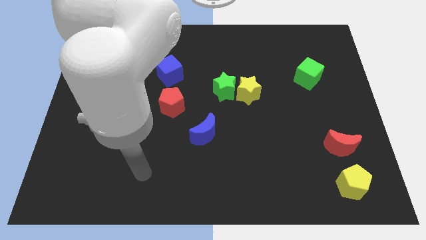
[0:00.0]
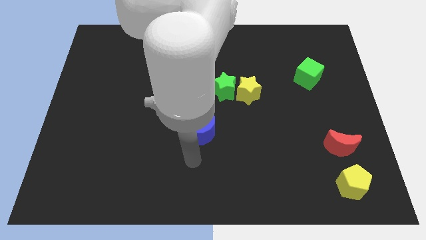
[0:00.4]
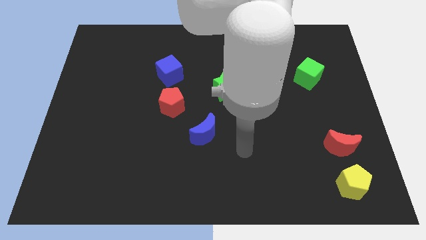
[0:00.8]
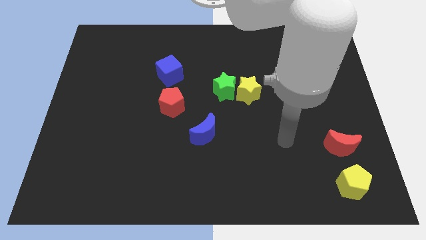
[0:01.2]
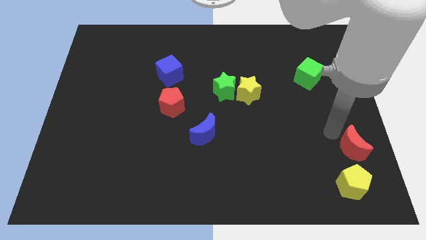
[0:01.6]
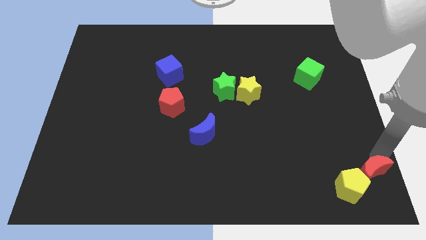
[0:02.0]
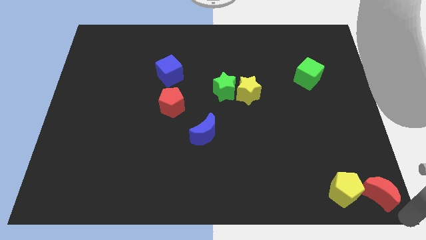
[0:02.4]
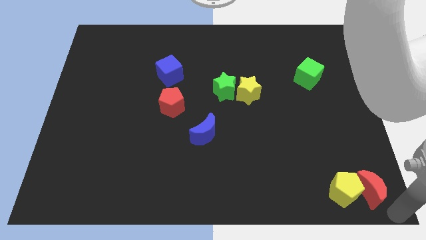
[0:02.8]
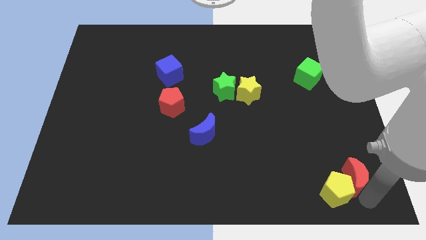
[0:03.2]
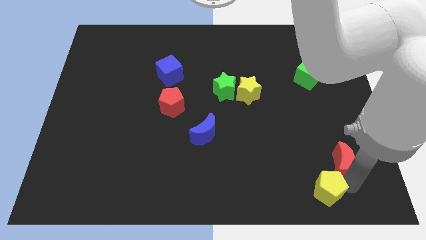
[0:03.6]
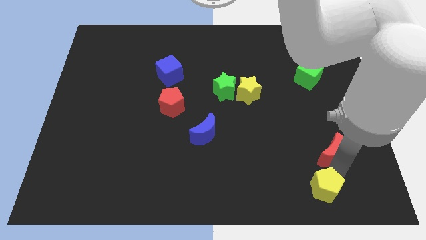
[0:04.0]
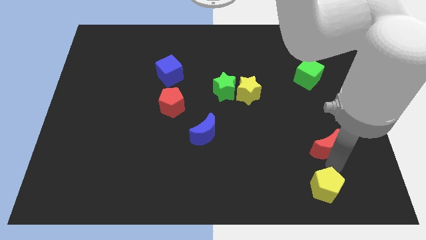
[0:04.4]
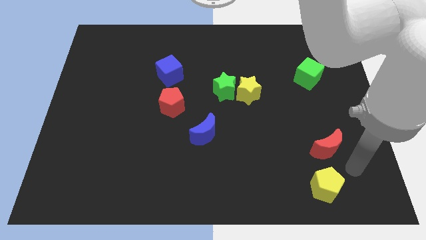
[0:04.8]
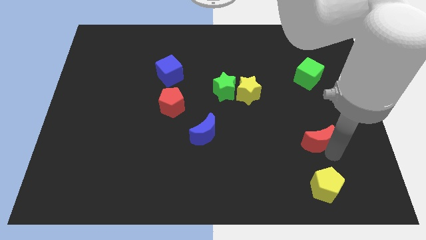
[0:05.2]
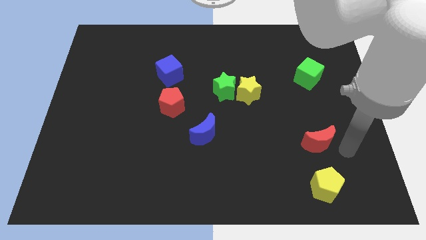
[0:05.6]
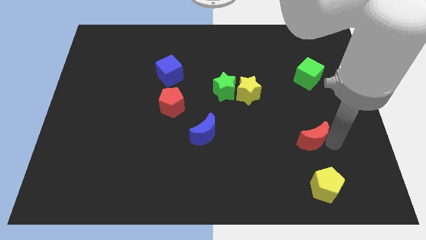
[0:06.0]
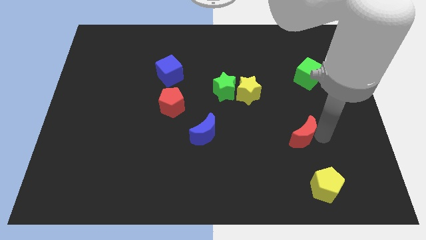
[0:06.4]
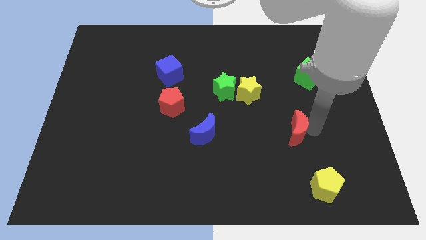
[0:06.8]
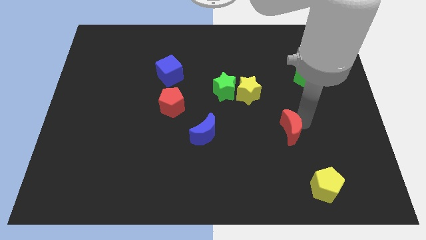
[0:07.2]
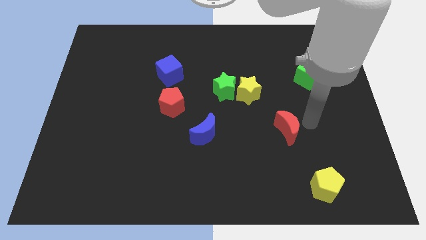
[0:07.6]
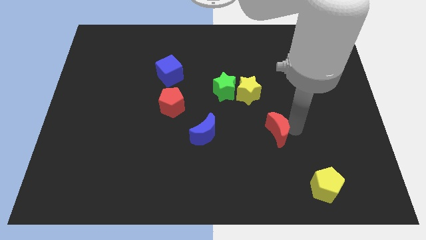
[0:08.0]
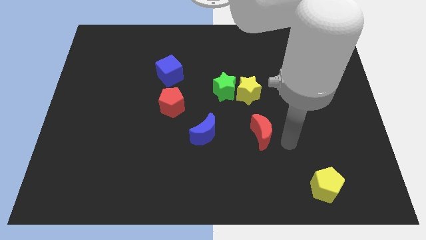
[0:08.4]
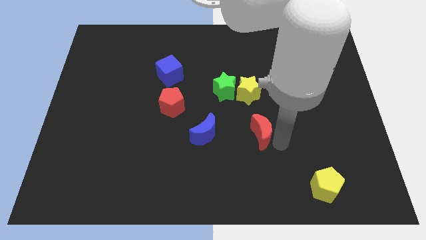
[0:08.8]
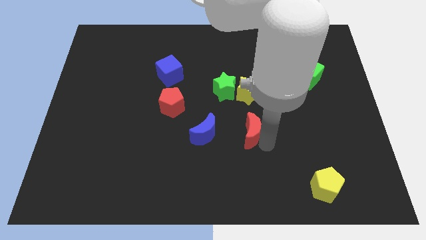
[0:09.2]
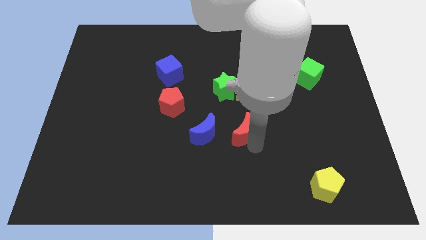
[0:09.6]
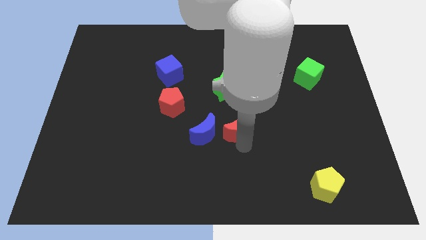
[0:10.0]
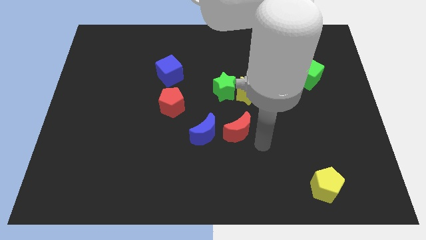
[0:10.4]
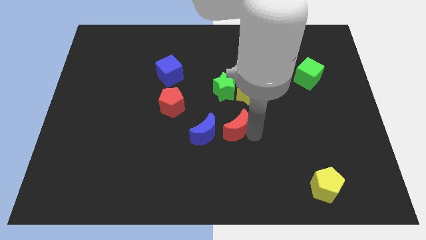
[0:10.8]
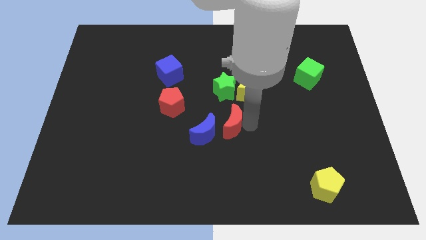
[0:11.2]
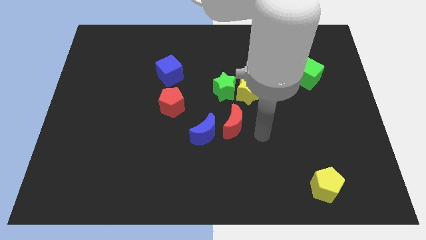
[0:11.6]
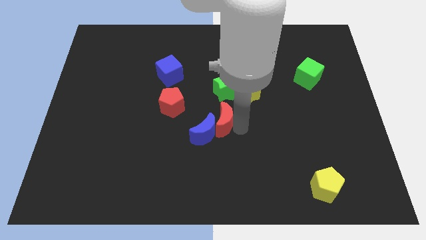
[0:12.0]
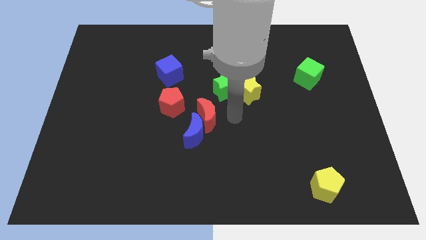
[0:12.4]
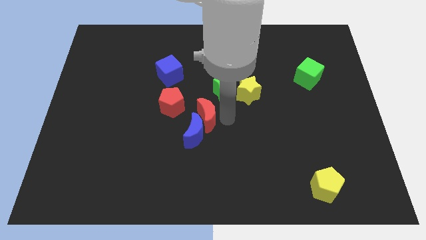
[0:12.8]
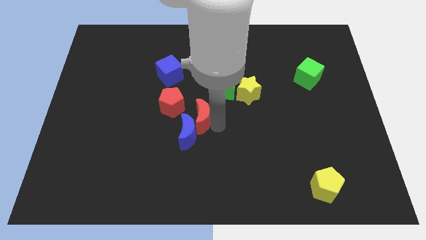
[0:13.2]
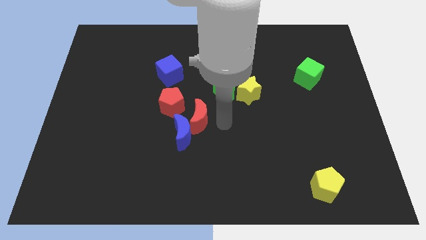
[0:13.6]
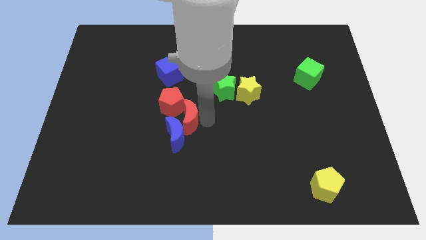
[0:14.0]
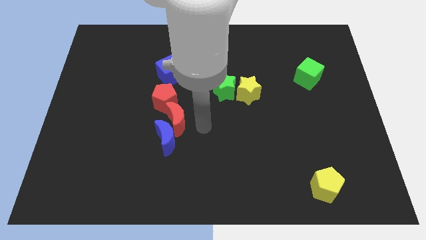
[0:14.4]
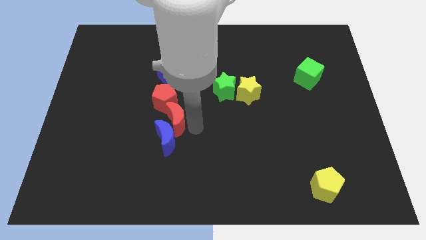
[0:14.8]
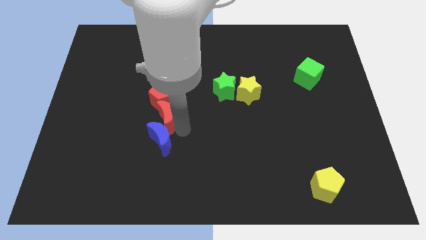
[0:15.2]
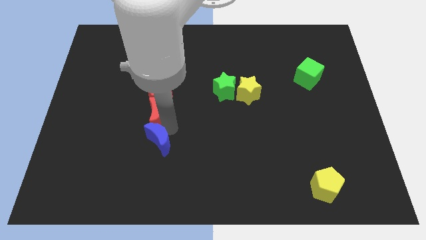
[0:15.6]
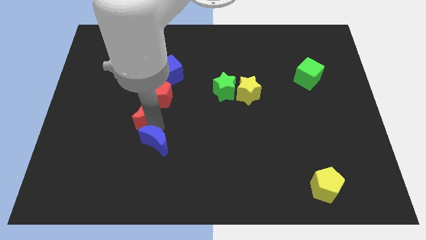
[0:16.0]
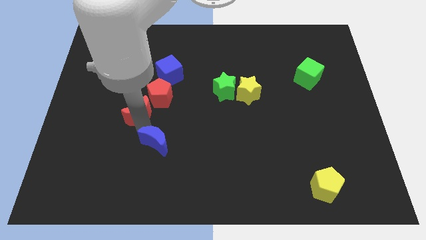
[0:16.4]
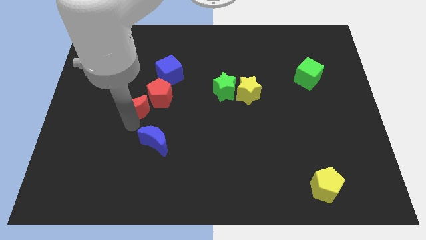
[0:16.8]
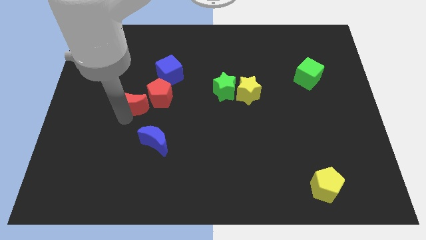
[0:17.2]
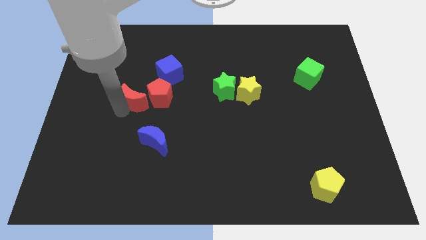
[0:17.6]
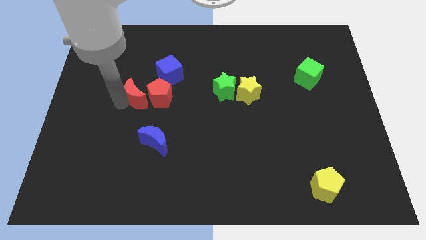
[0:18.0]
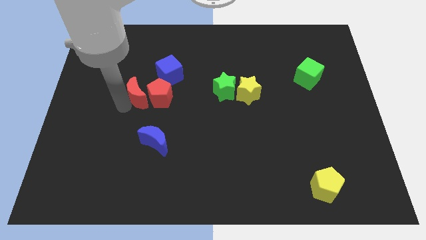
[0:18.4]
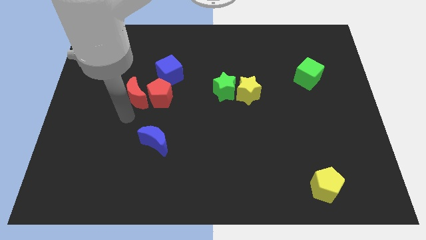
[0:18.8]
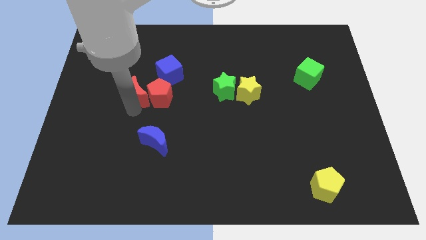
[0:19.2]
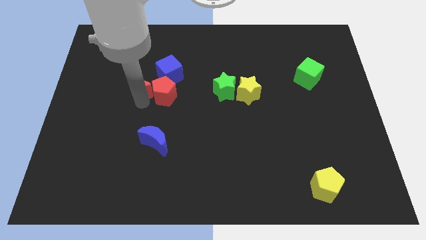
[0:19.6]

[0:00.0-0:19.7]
slide the red moon left of the blue cube

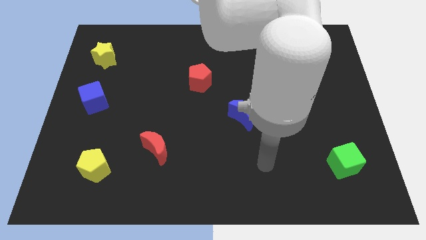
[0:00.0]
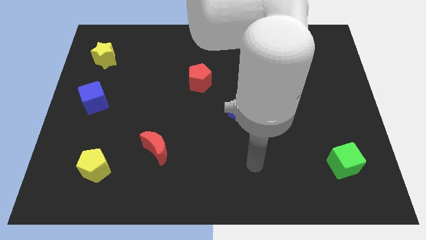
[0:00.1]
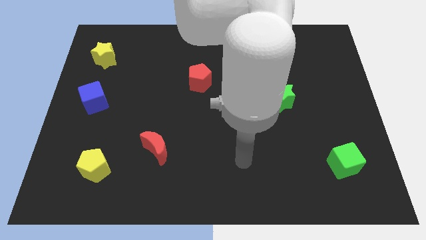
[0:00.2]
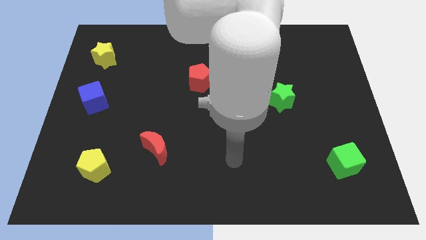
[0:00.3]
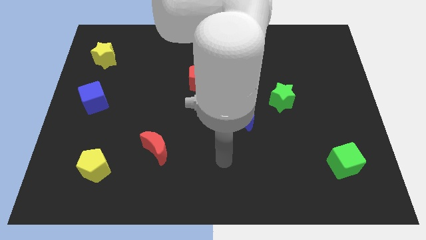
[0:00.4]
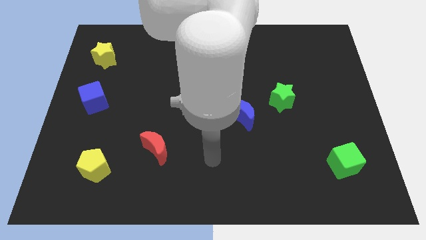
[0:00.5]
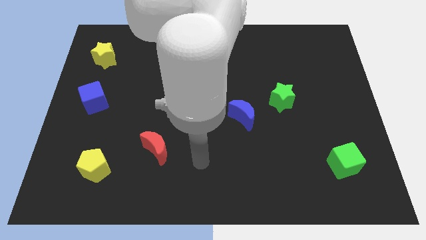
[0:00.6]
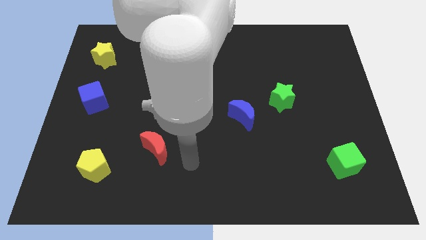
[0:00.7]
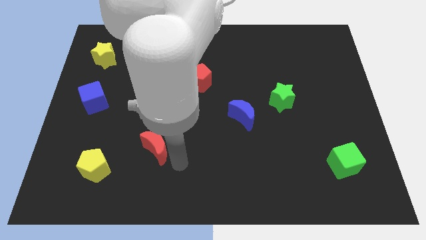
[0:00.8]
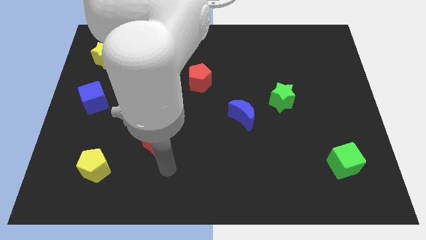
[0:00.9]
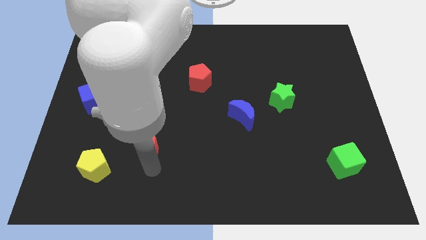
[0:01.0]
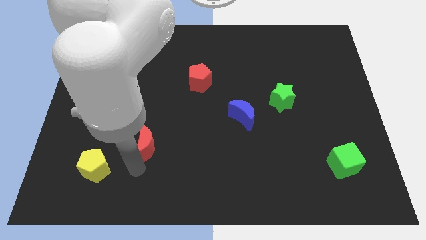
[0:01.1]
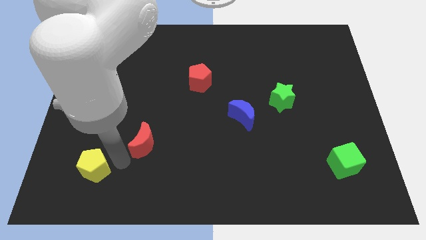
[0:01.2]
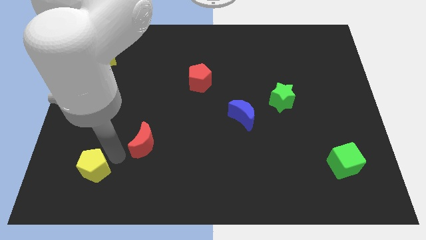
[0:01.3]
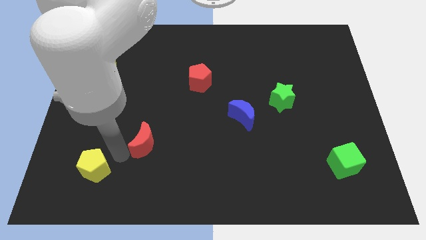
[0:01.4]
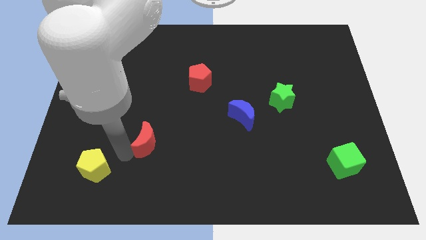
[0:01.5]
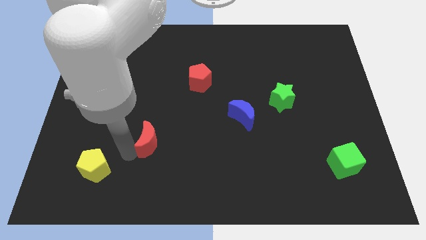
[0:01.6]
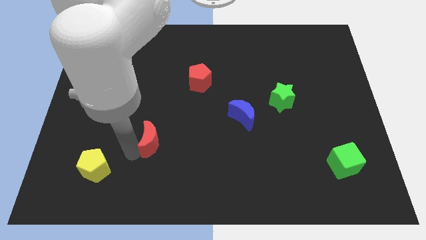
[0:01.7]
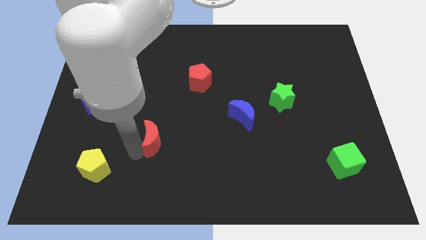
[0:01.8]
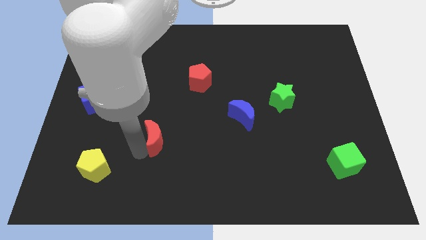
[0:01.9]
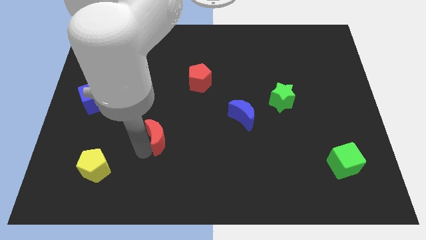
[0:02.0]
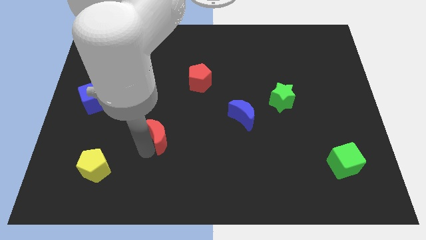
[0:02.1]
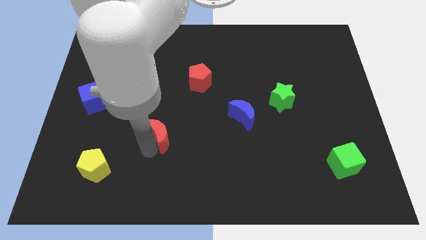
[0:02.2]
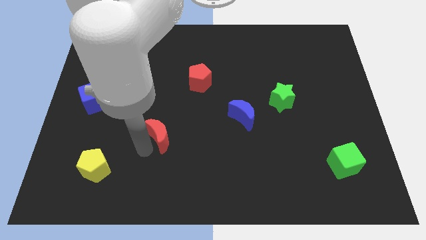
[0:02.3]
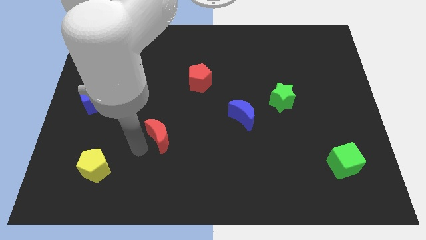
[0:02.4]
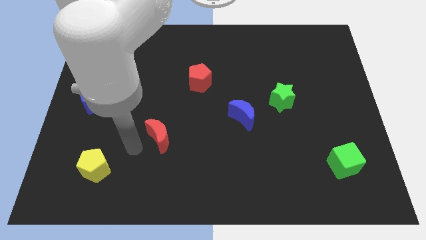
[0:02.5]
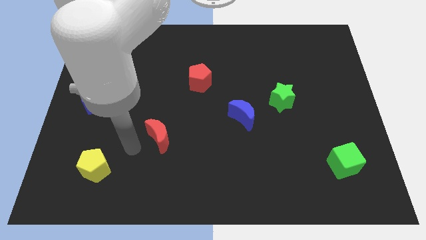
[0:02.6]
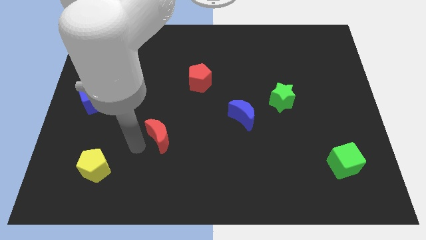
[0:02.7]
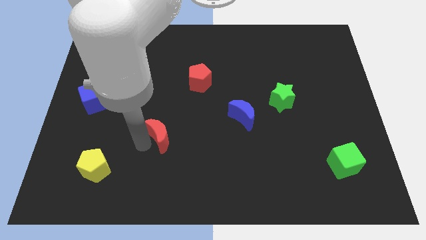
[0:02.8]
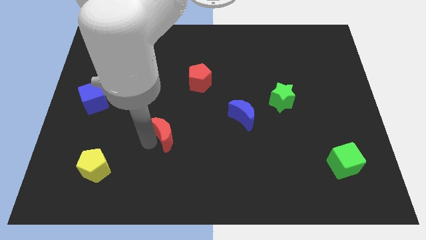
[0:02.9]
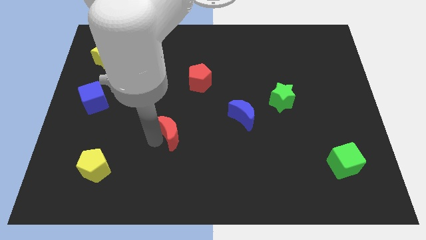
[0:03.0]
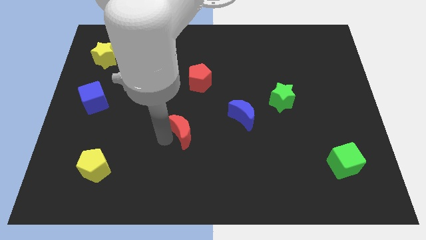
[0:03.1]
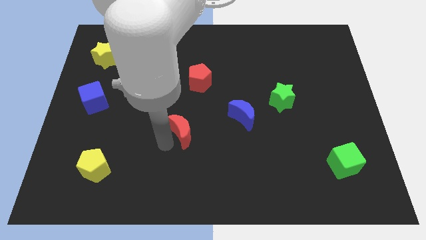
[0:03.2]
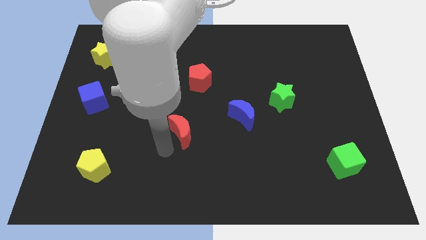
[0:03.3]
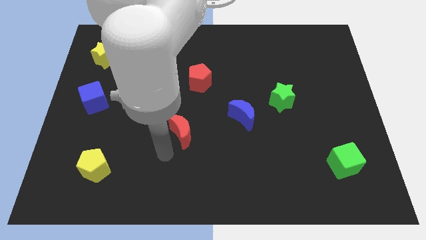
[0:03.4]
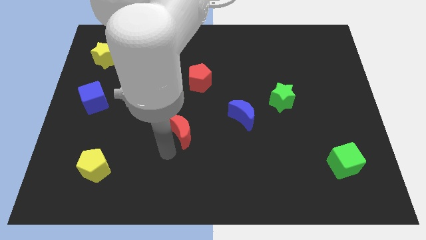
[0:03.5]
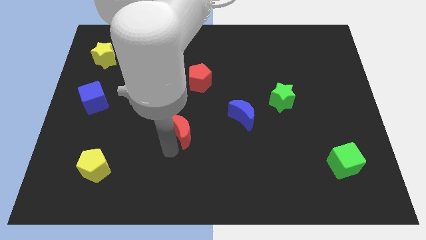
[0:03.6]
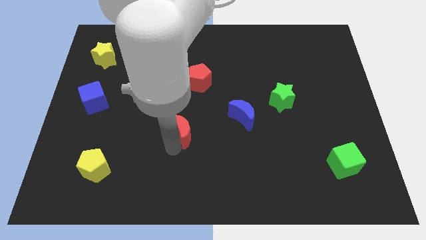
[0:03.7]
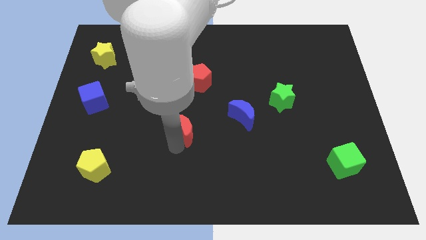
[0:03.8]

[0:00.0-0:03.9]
push the red moon to the bottom side of the red pentagon
